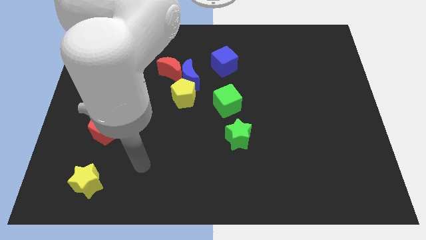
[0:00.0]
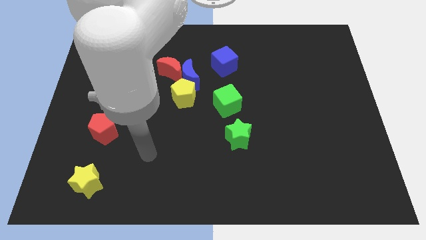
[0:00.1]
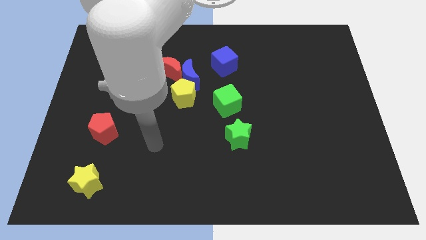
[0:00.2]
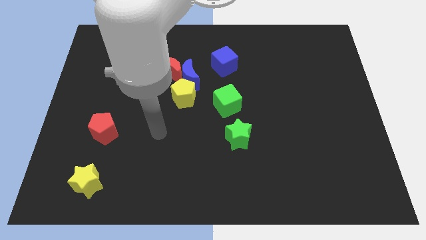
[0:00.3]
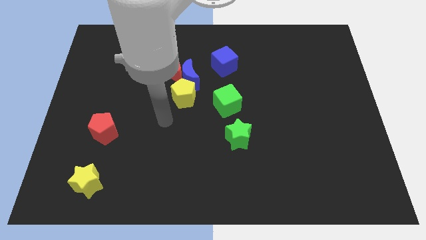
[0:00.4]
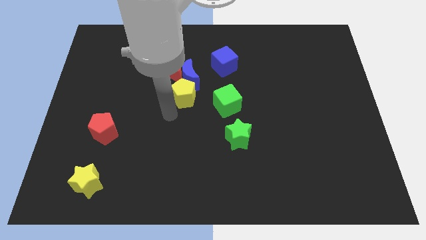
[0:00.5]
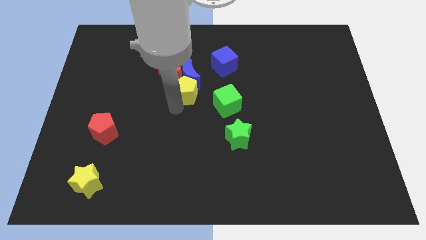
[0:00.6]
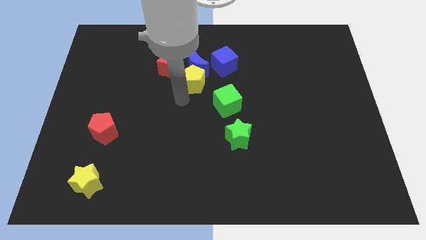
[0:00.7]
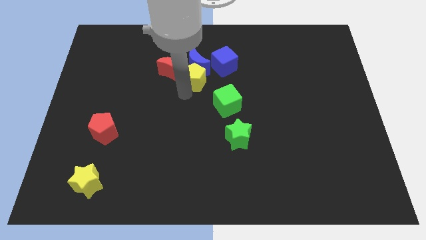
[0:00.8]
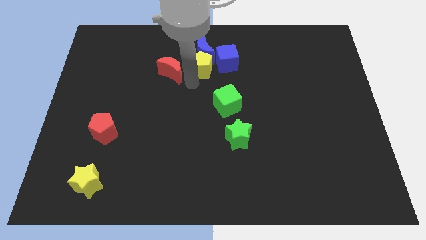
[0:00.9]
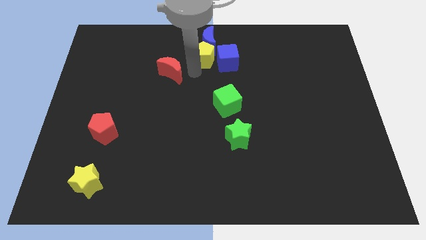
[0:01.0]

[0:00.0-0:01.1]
pull the red moon apart from the blue moon and yellow pentagon

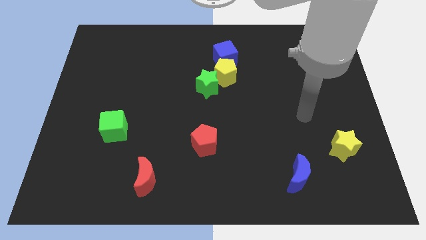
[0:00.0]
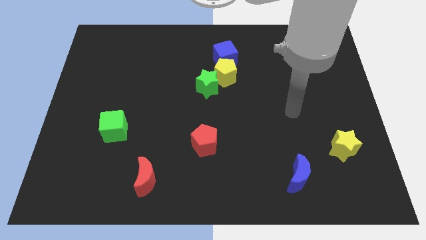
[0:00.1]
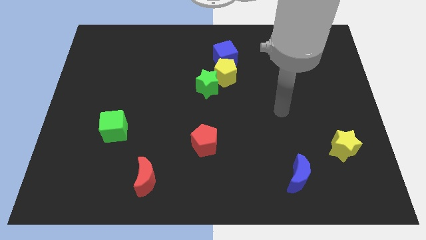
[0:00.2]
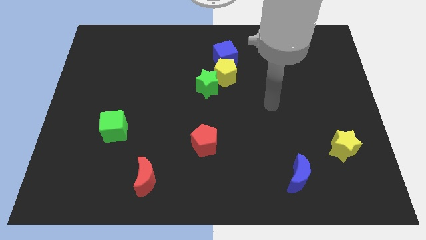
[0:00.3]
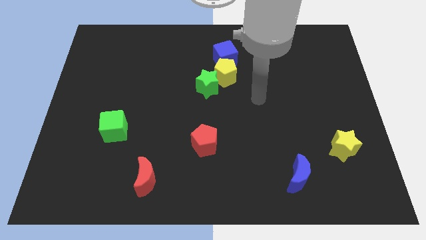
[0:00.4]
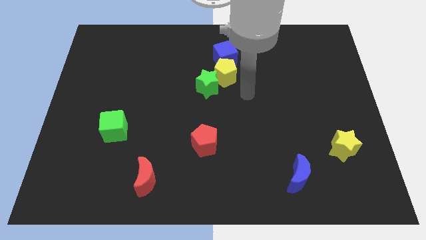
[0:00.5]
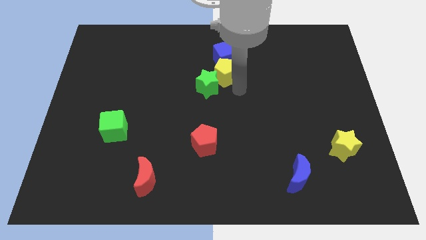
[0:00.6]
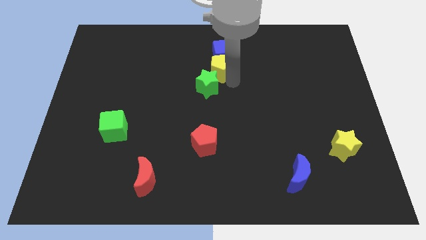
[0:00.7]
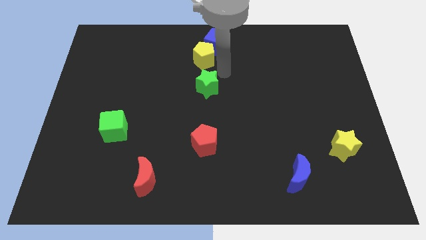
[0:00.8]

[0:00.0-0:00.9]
move the green star away from the yellow pentagon

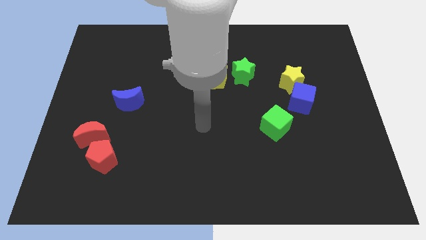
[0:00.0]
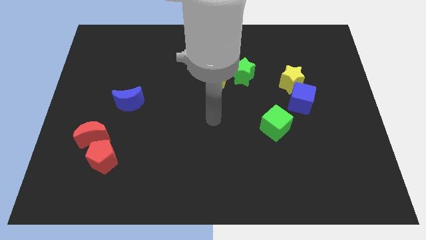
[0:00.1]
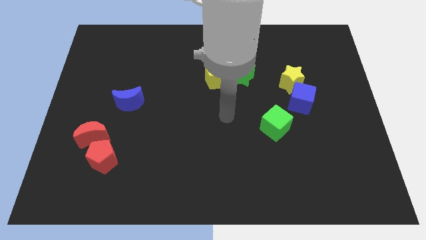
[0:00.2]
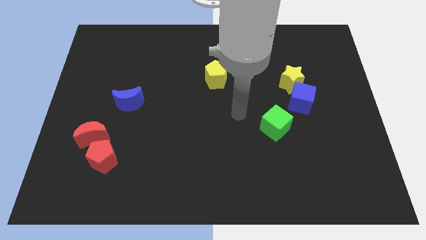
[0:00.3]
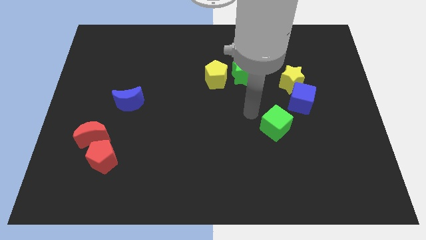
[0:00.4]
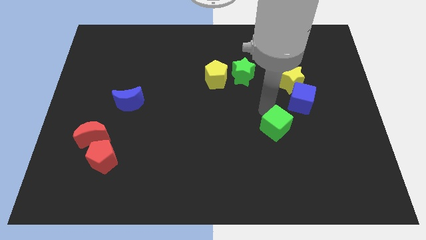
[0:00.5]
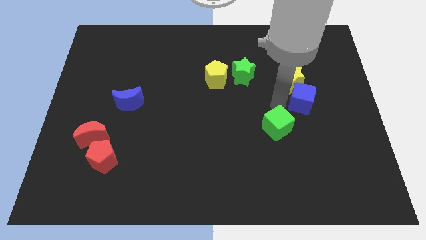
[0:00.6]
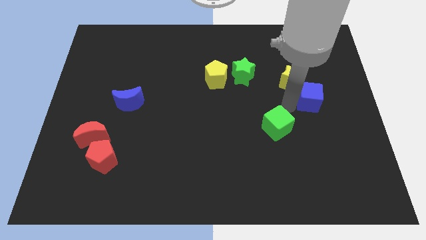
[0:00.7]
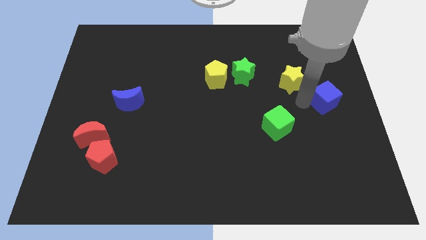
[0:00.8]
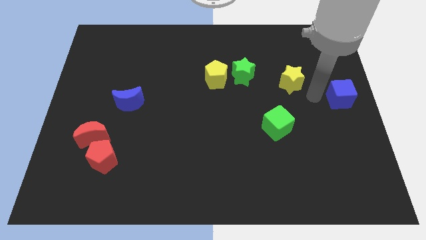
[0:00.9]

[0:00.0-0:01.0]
separate the yellow star from the blue cube

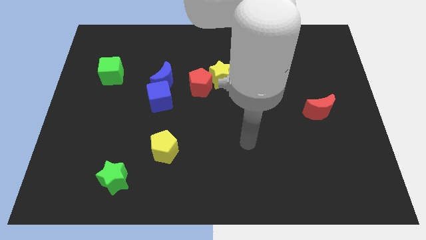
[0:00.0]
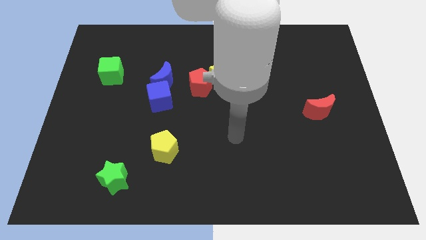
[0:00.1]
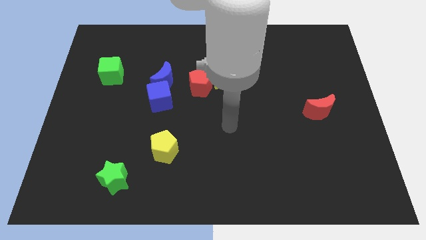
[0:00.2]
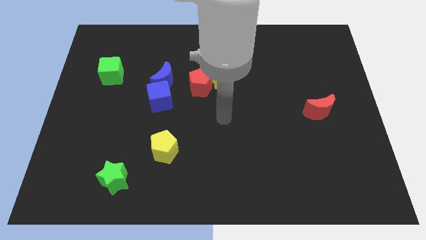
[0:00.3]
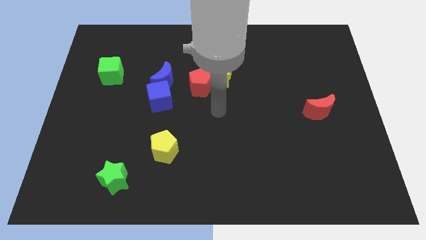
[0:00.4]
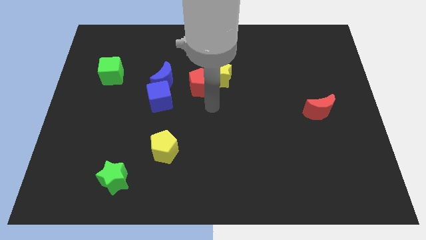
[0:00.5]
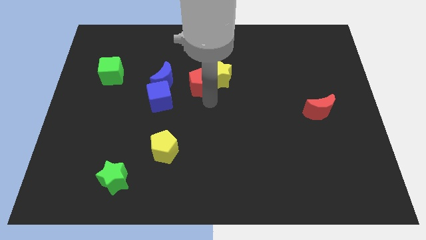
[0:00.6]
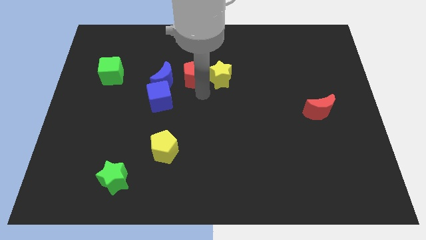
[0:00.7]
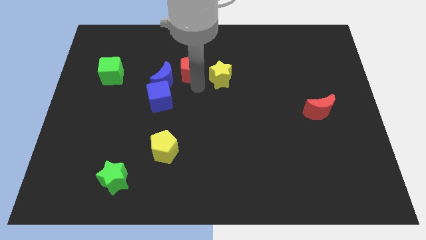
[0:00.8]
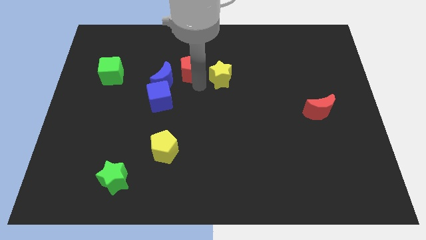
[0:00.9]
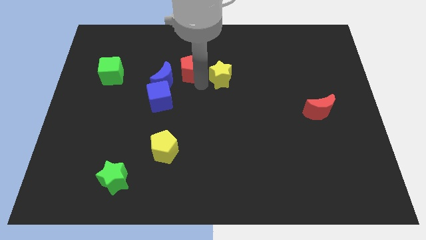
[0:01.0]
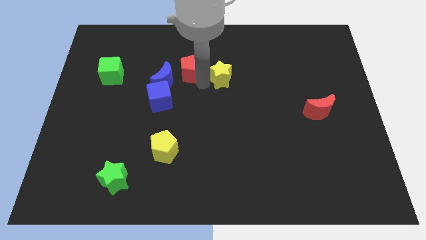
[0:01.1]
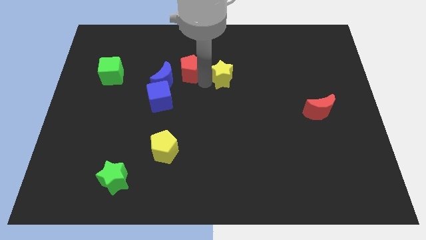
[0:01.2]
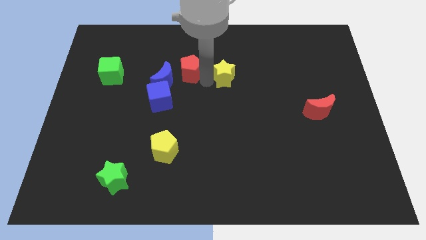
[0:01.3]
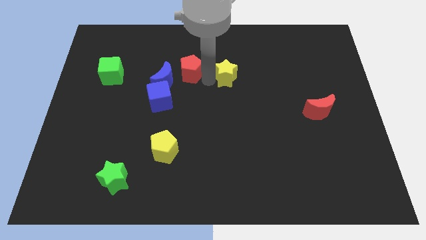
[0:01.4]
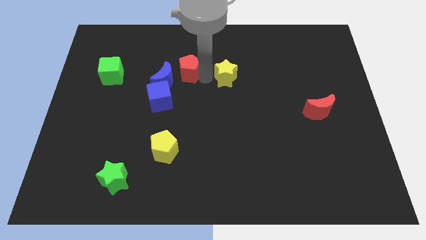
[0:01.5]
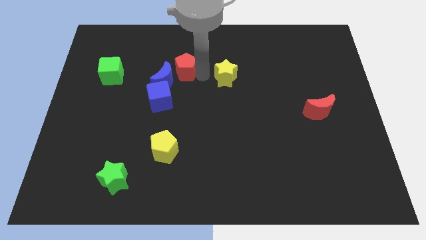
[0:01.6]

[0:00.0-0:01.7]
move the yellow star away from the red pentagon

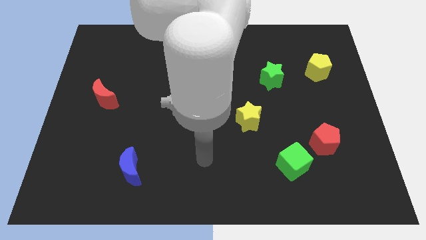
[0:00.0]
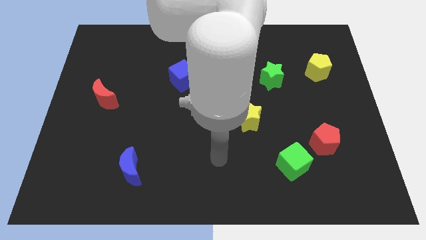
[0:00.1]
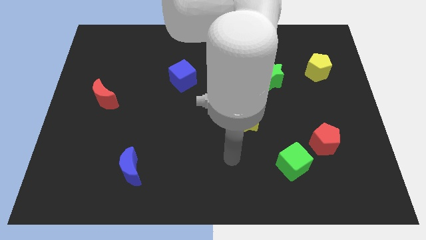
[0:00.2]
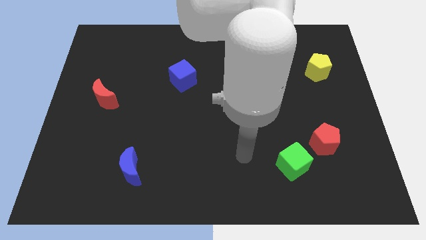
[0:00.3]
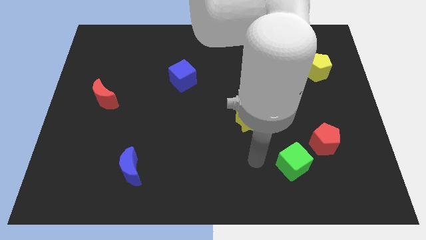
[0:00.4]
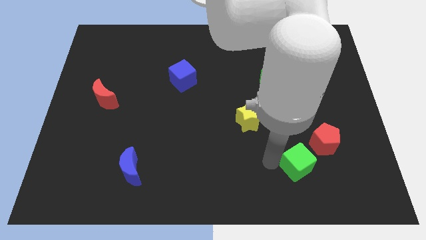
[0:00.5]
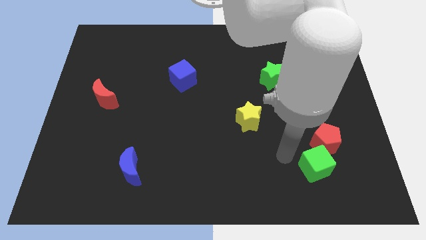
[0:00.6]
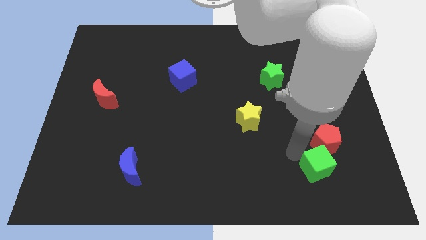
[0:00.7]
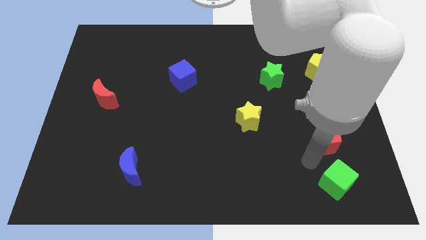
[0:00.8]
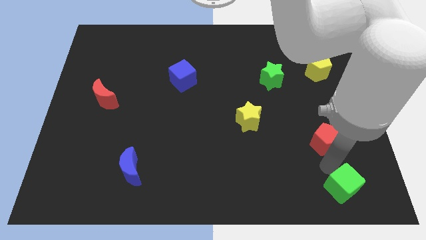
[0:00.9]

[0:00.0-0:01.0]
separate the red pentagon from the green cube

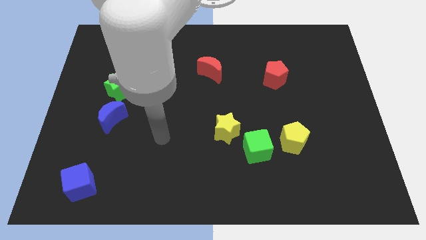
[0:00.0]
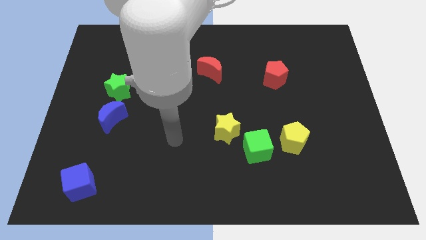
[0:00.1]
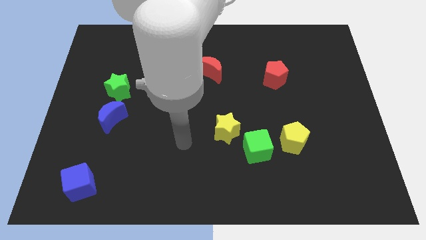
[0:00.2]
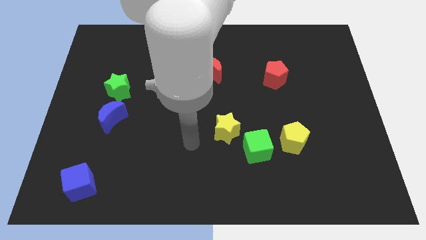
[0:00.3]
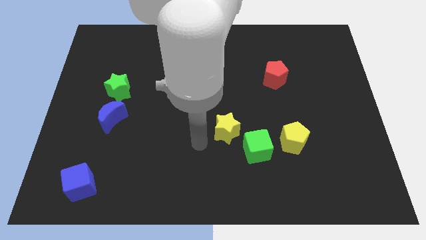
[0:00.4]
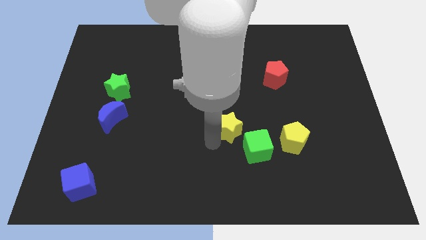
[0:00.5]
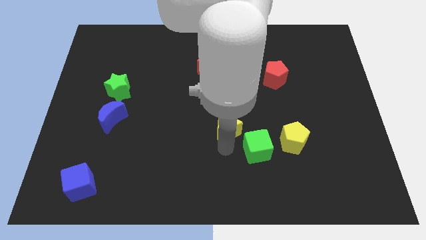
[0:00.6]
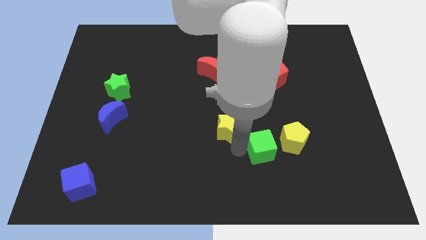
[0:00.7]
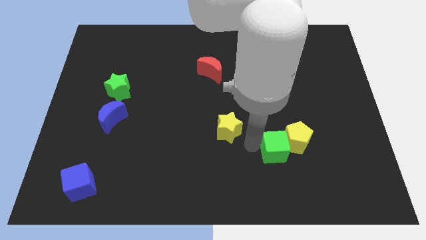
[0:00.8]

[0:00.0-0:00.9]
separate the yellow star from the green cube

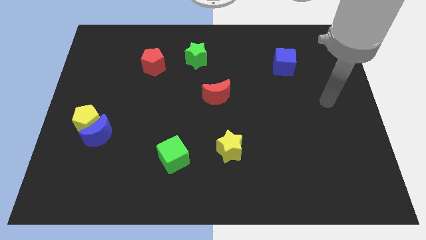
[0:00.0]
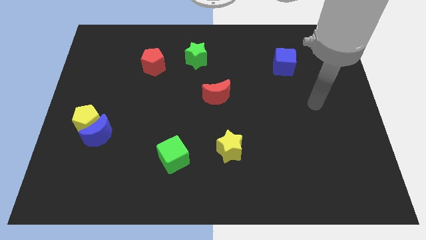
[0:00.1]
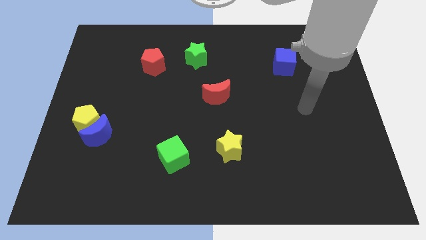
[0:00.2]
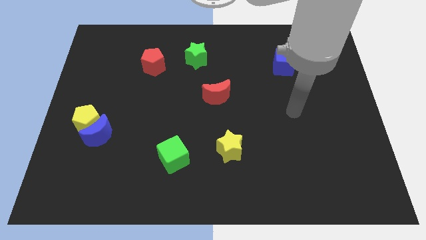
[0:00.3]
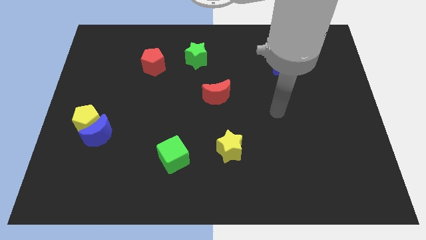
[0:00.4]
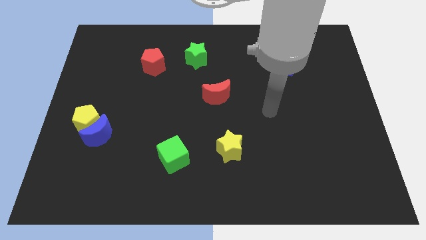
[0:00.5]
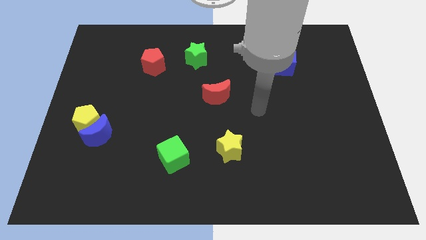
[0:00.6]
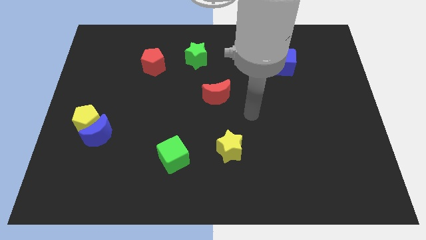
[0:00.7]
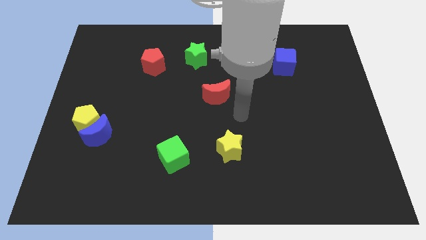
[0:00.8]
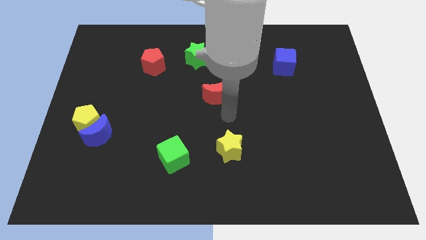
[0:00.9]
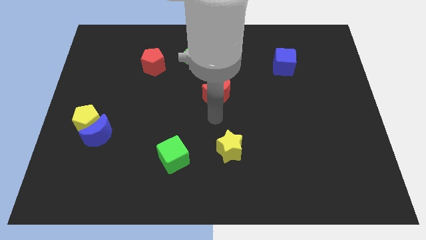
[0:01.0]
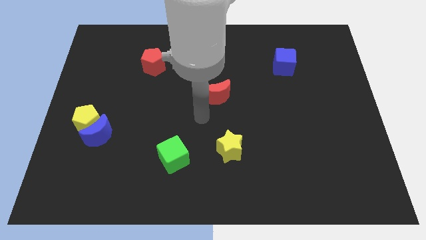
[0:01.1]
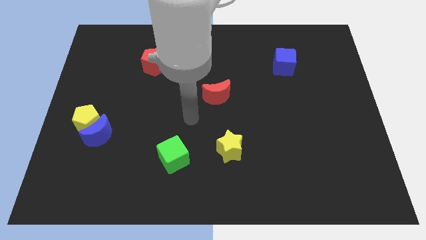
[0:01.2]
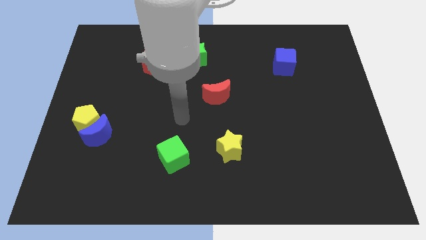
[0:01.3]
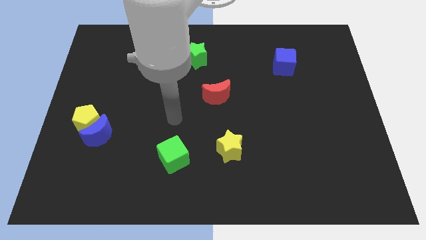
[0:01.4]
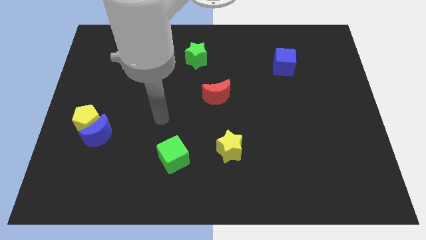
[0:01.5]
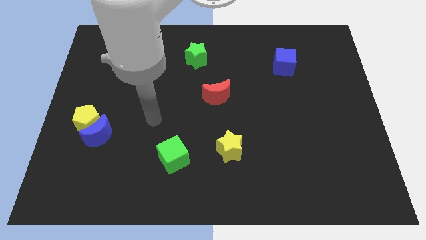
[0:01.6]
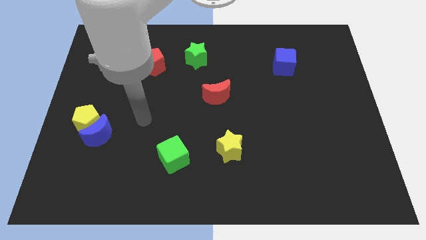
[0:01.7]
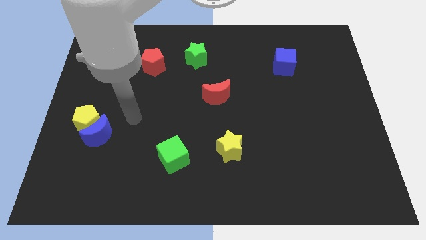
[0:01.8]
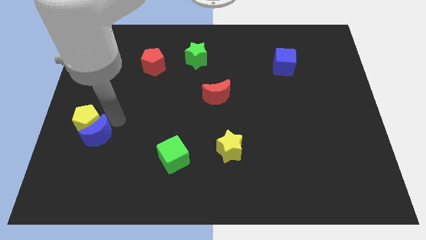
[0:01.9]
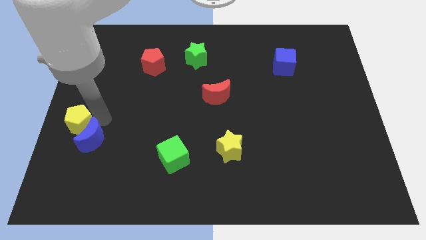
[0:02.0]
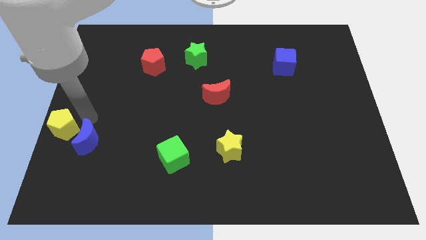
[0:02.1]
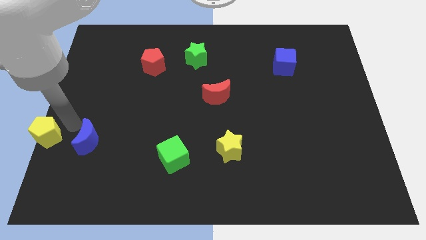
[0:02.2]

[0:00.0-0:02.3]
move the blue moon away from the yellow pentagon

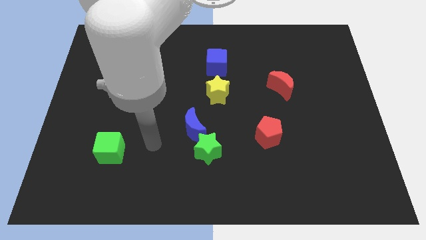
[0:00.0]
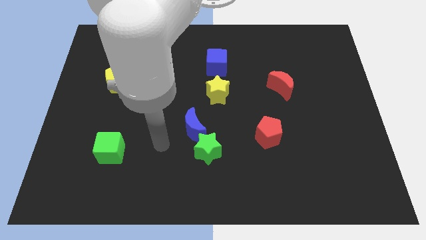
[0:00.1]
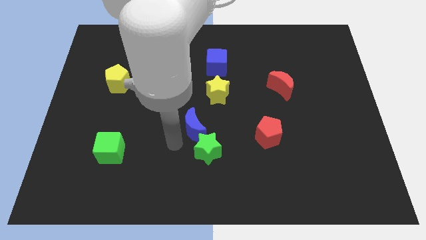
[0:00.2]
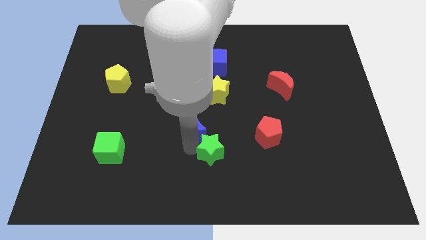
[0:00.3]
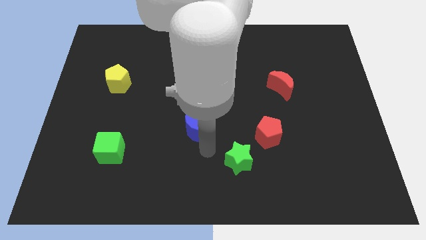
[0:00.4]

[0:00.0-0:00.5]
separate the blue moon from the green star
